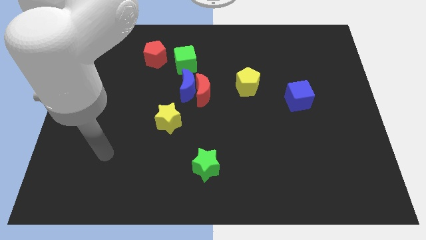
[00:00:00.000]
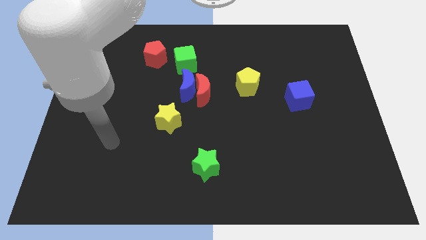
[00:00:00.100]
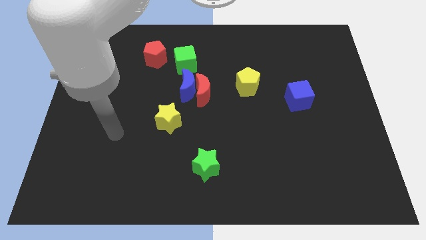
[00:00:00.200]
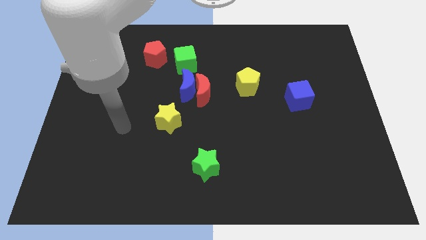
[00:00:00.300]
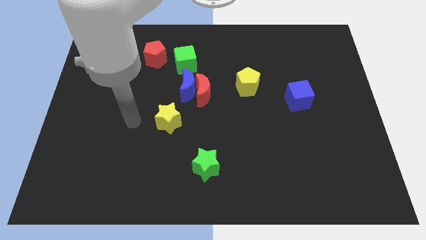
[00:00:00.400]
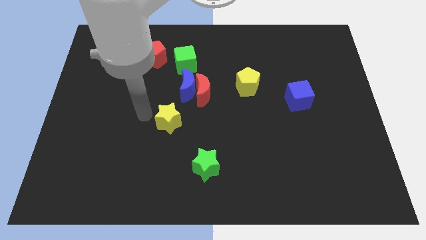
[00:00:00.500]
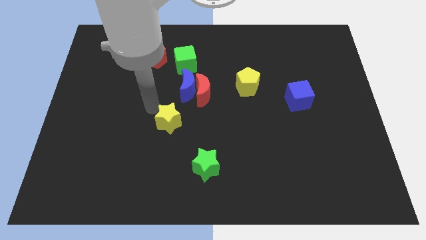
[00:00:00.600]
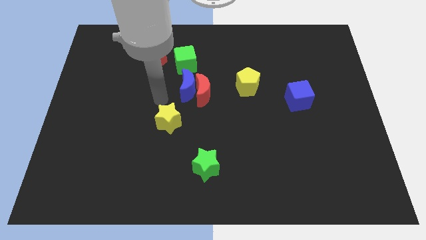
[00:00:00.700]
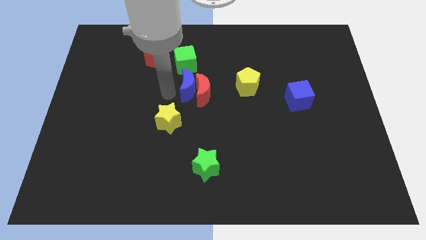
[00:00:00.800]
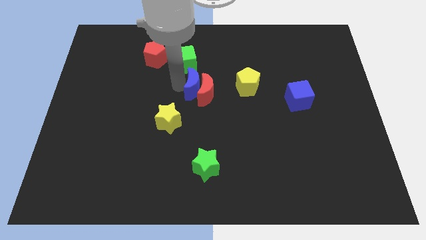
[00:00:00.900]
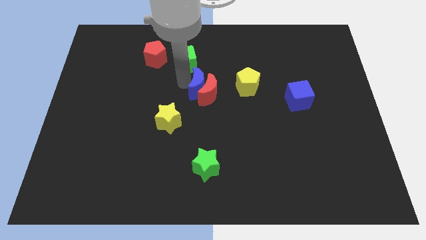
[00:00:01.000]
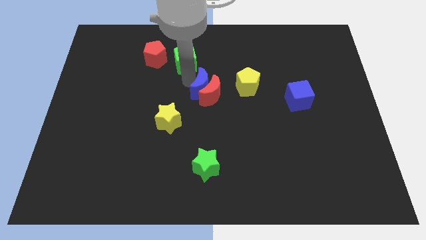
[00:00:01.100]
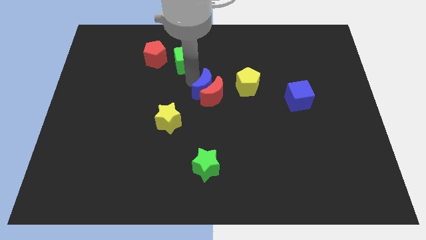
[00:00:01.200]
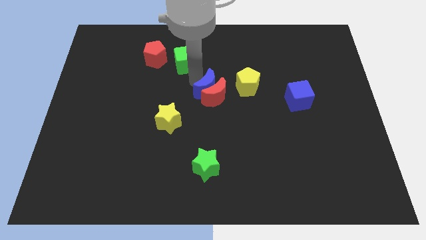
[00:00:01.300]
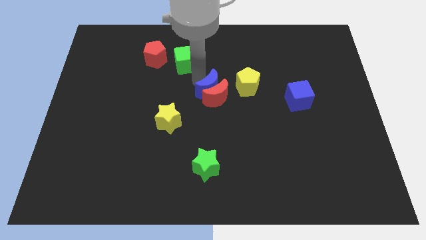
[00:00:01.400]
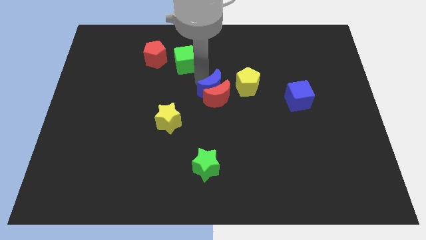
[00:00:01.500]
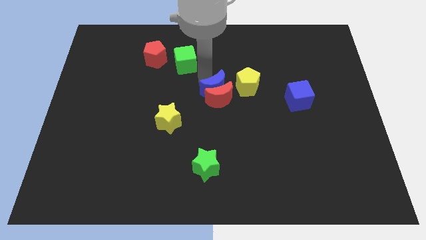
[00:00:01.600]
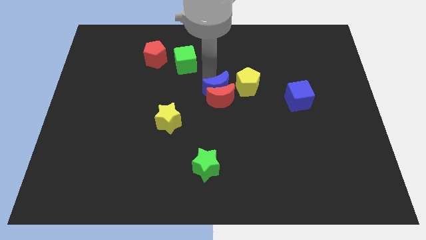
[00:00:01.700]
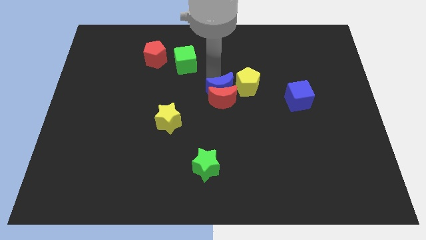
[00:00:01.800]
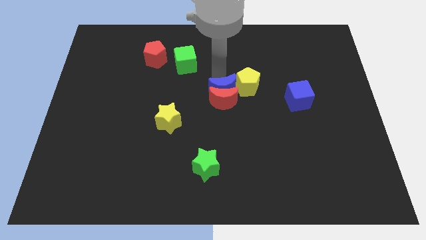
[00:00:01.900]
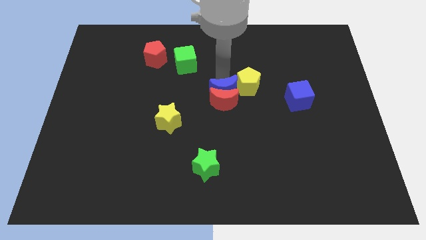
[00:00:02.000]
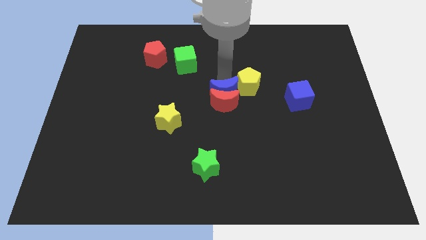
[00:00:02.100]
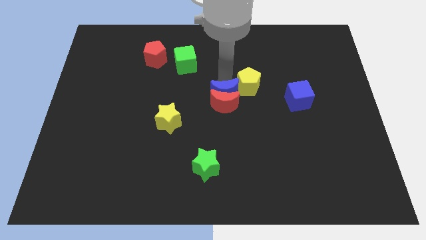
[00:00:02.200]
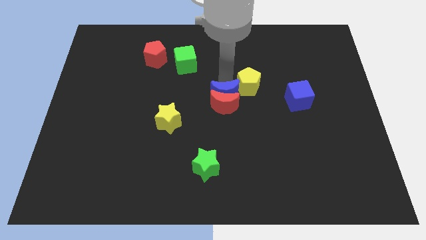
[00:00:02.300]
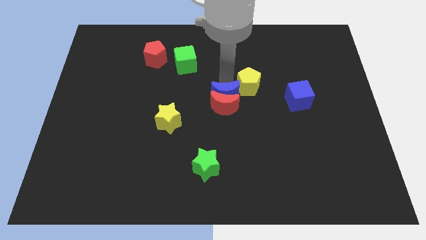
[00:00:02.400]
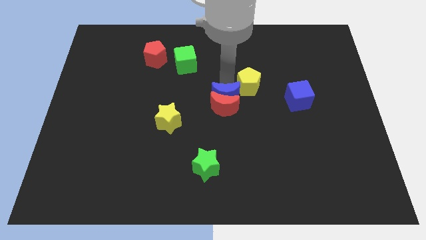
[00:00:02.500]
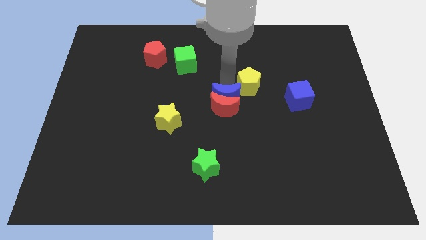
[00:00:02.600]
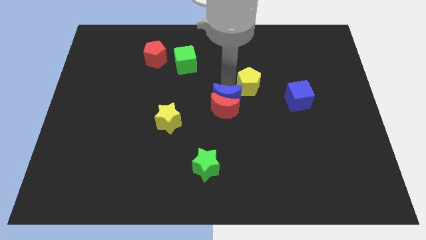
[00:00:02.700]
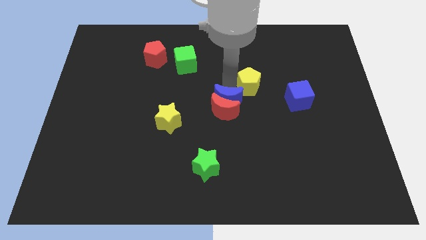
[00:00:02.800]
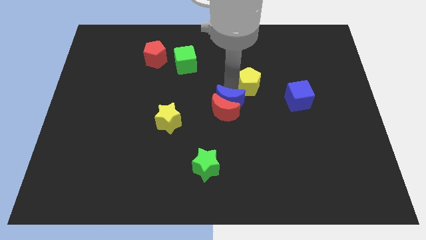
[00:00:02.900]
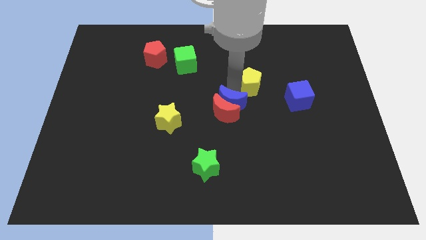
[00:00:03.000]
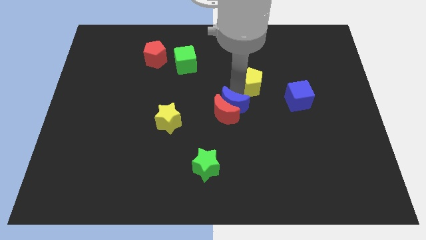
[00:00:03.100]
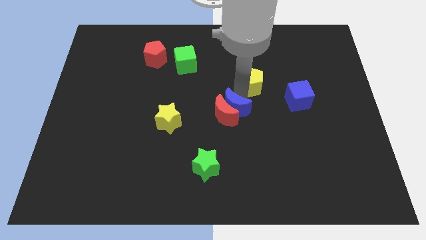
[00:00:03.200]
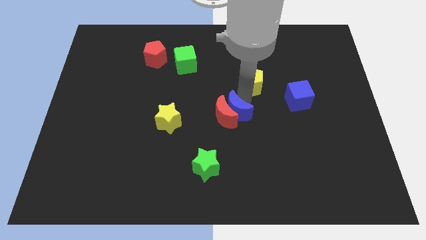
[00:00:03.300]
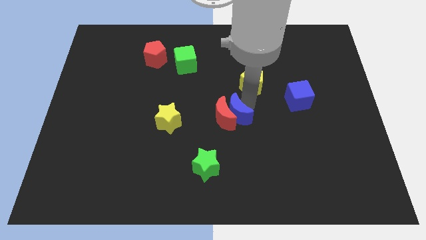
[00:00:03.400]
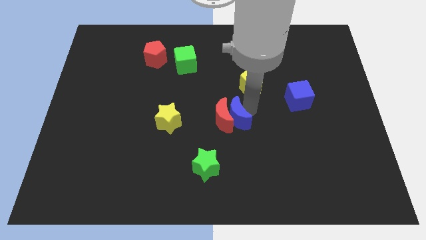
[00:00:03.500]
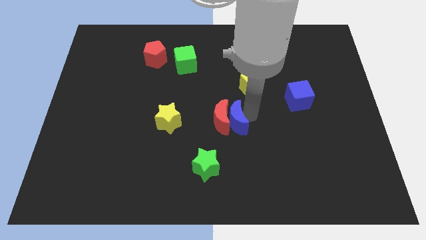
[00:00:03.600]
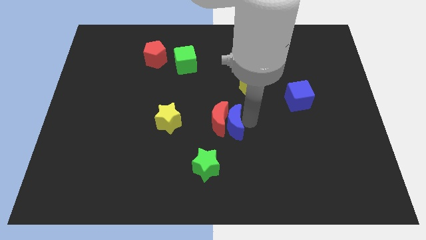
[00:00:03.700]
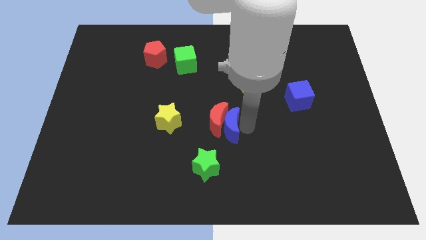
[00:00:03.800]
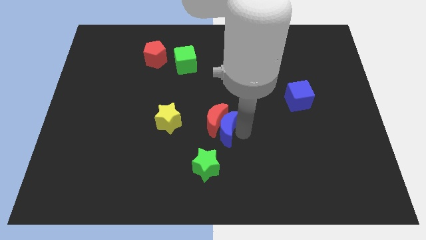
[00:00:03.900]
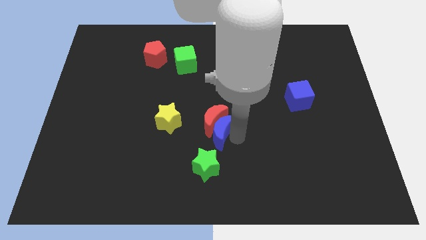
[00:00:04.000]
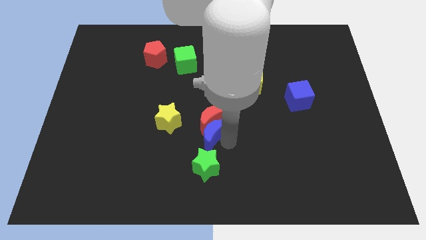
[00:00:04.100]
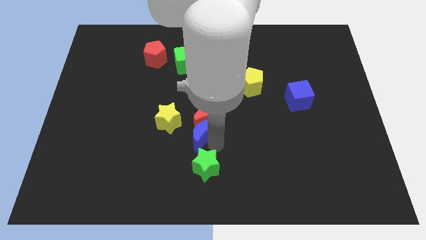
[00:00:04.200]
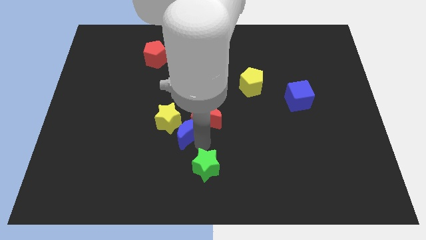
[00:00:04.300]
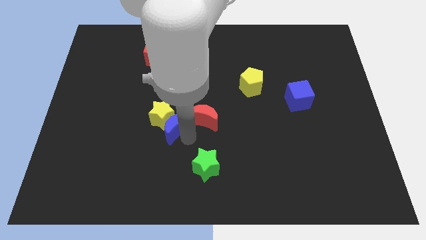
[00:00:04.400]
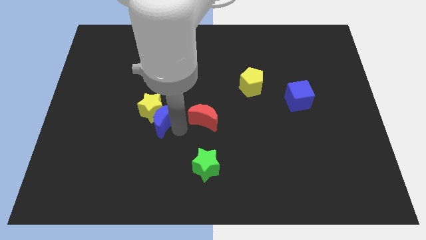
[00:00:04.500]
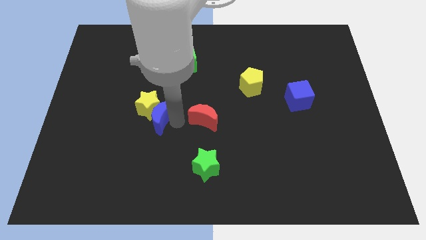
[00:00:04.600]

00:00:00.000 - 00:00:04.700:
move the red moon away from the blue moon

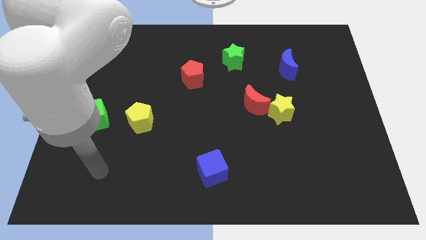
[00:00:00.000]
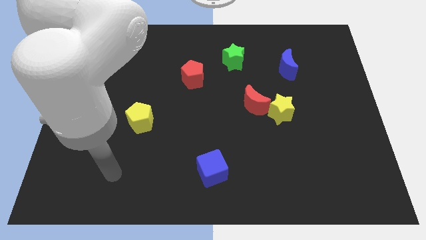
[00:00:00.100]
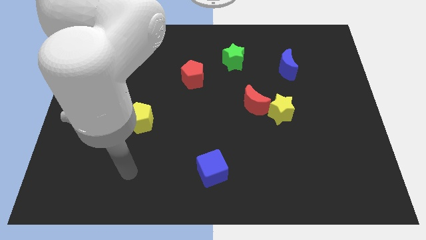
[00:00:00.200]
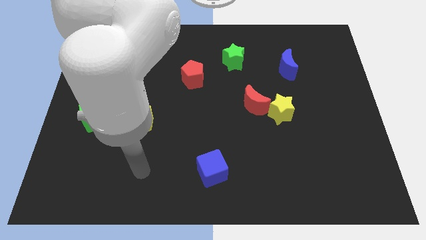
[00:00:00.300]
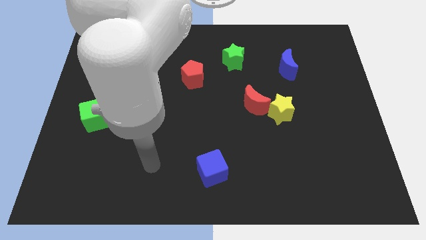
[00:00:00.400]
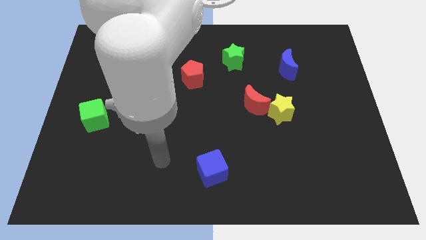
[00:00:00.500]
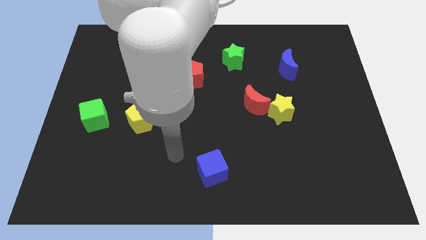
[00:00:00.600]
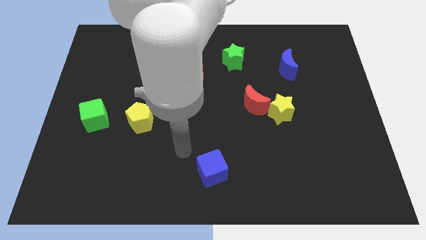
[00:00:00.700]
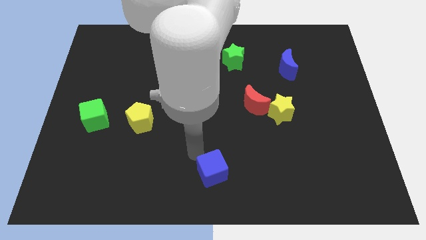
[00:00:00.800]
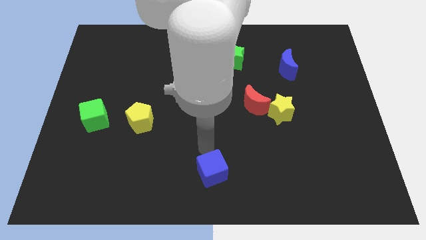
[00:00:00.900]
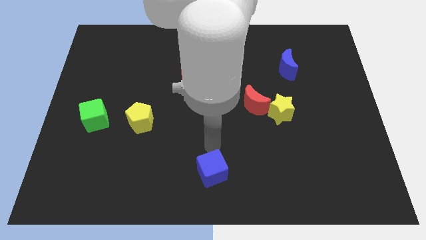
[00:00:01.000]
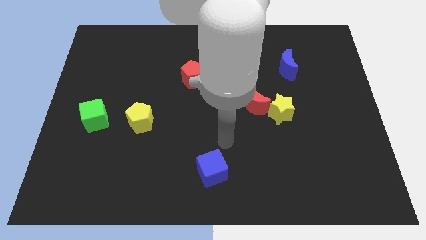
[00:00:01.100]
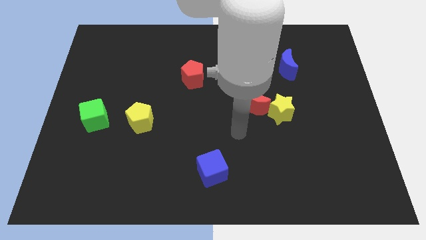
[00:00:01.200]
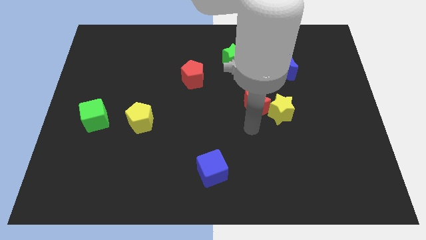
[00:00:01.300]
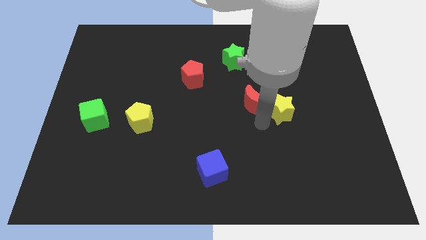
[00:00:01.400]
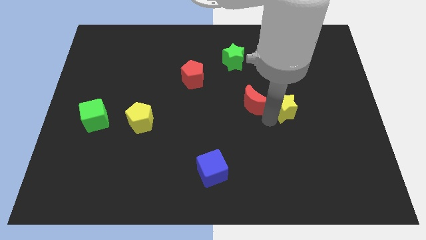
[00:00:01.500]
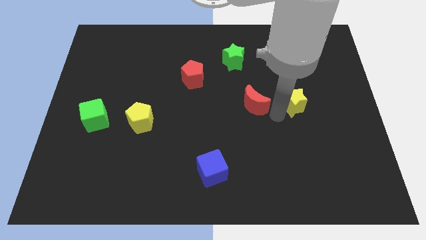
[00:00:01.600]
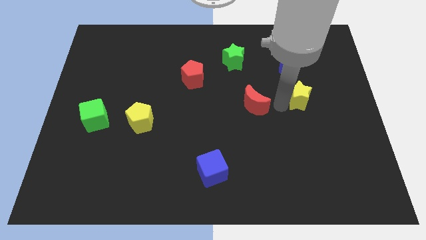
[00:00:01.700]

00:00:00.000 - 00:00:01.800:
move the red moon away from the yellow star

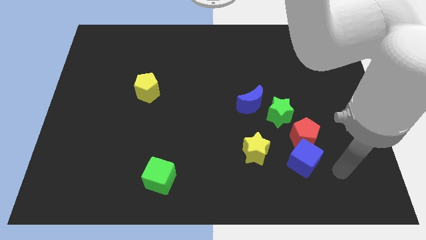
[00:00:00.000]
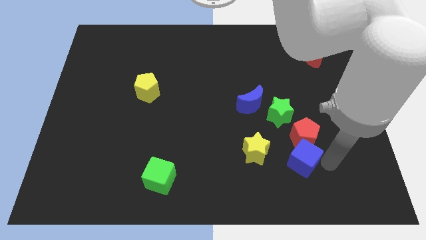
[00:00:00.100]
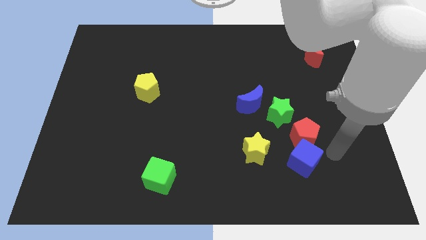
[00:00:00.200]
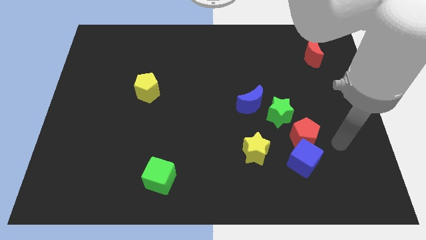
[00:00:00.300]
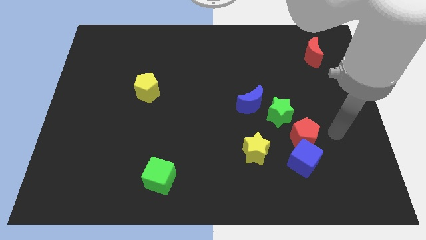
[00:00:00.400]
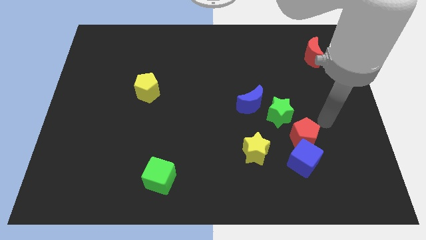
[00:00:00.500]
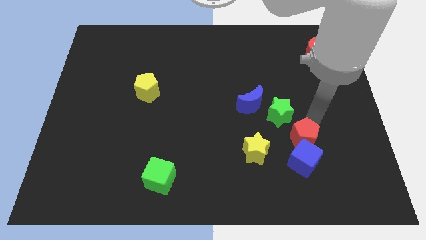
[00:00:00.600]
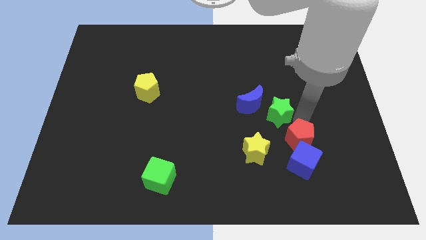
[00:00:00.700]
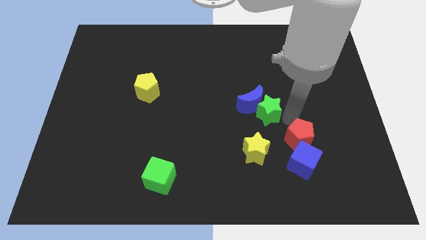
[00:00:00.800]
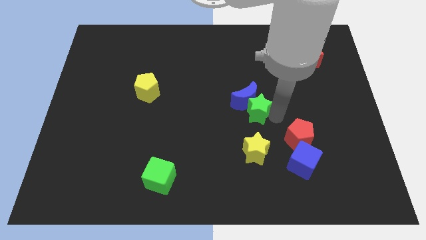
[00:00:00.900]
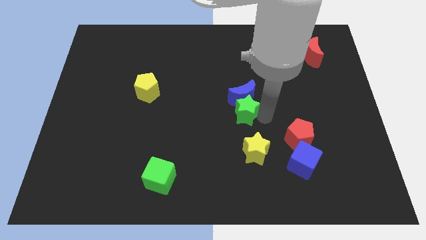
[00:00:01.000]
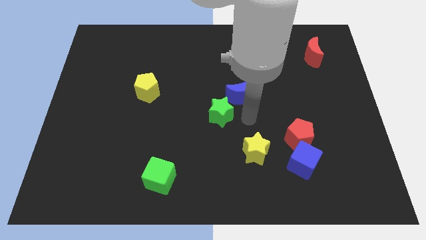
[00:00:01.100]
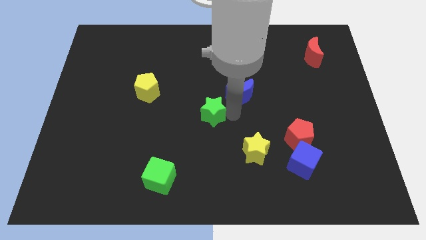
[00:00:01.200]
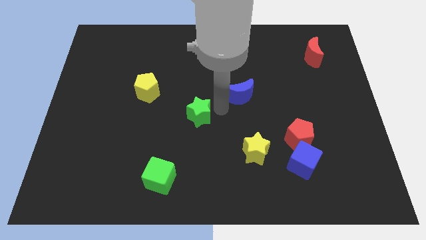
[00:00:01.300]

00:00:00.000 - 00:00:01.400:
move the blue moon away from the green star

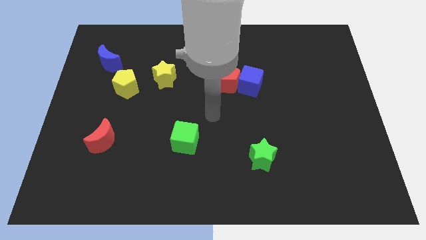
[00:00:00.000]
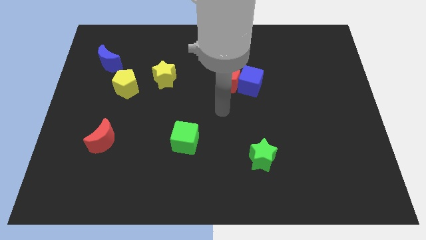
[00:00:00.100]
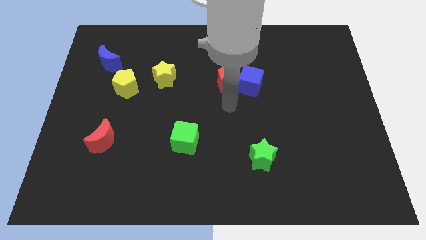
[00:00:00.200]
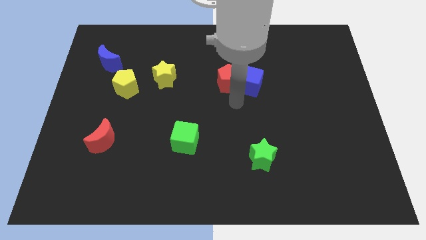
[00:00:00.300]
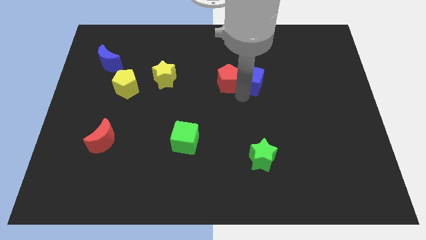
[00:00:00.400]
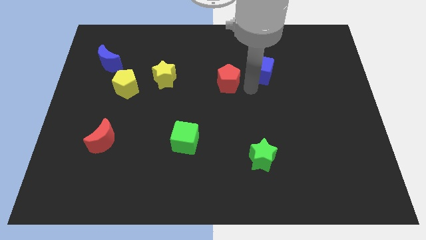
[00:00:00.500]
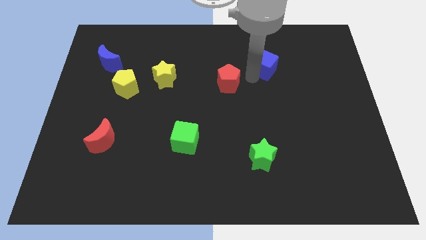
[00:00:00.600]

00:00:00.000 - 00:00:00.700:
pull the red pentagon apart from the blue cube

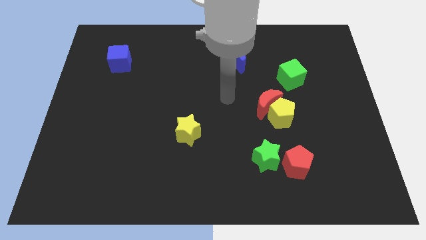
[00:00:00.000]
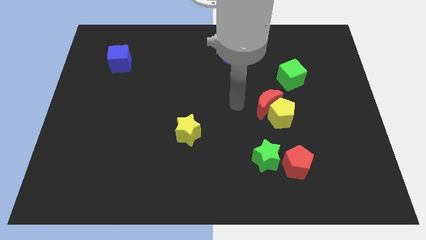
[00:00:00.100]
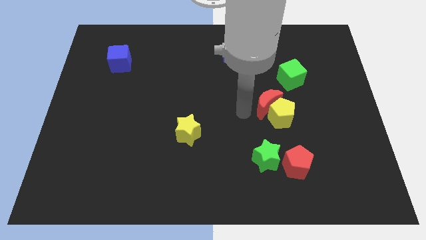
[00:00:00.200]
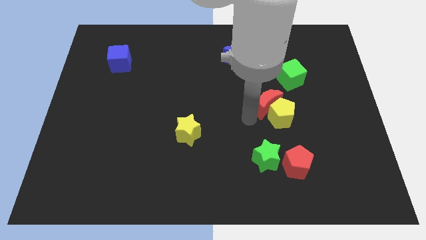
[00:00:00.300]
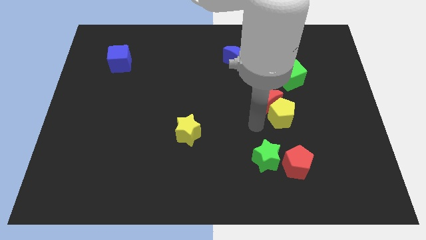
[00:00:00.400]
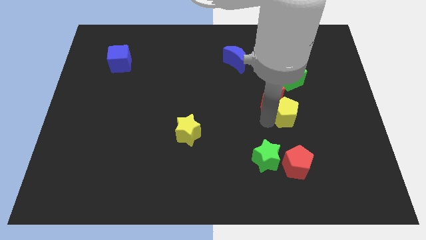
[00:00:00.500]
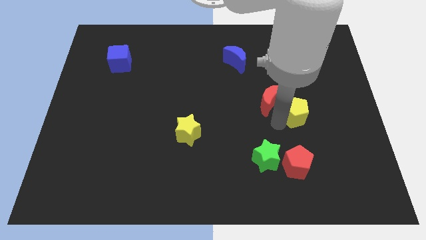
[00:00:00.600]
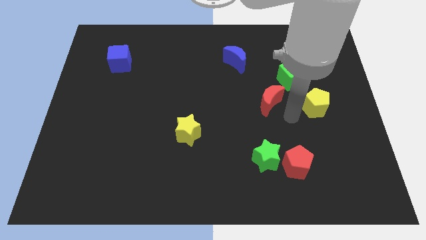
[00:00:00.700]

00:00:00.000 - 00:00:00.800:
pull the red moon apart from the yellow pentagon
